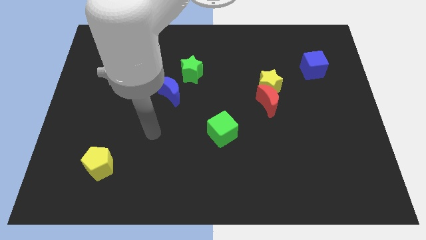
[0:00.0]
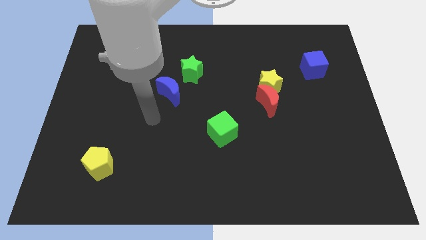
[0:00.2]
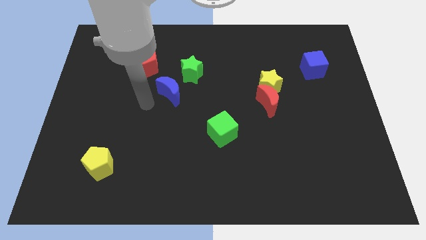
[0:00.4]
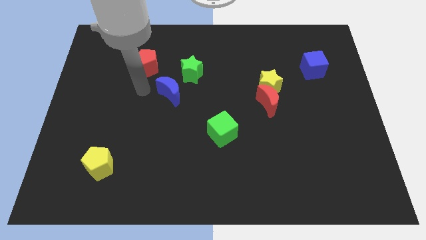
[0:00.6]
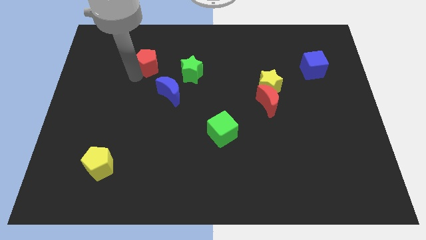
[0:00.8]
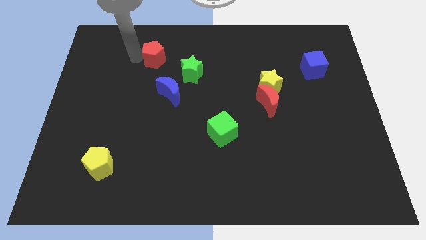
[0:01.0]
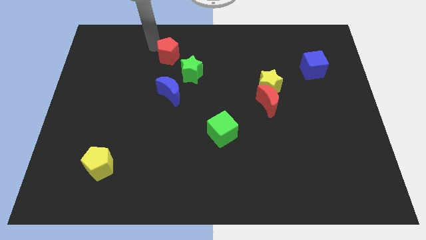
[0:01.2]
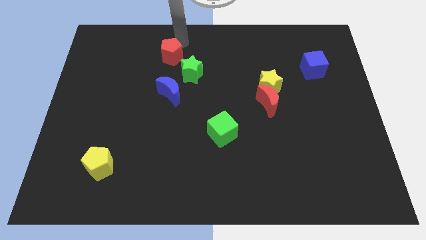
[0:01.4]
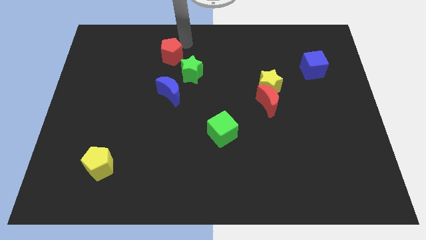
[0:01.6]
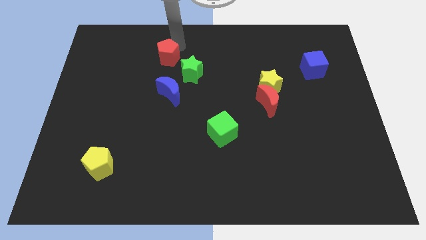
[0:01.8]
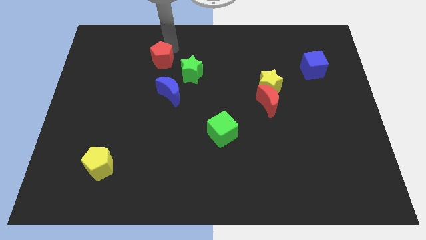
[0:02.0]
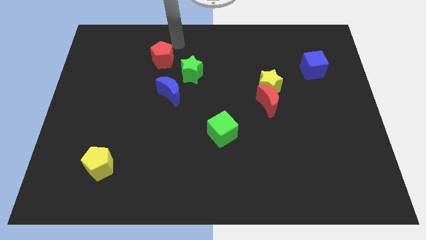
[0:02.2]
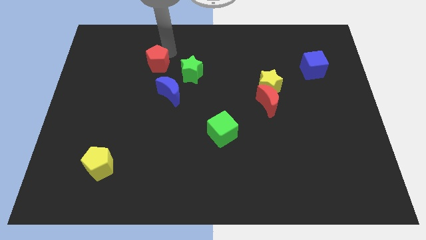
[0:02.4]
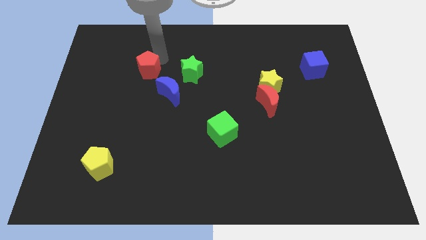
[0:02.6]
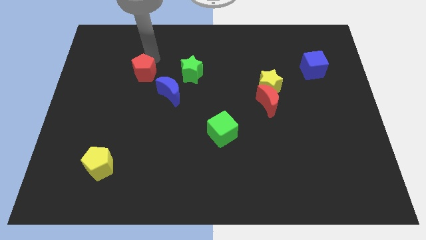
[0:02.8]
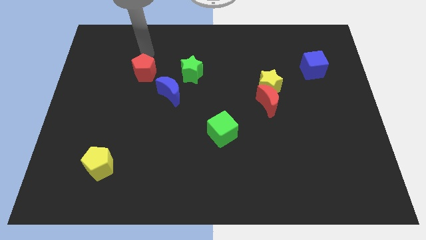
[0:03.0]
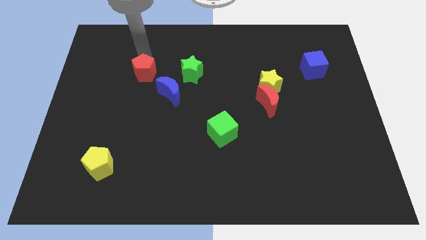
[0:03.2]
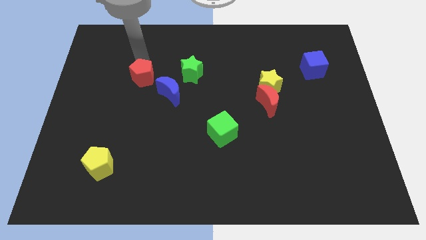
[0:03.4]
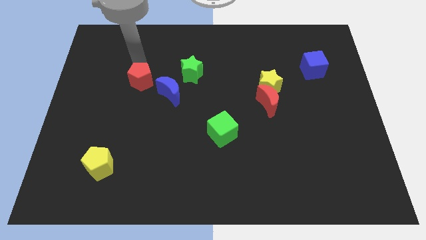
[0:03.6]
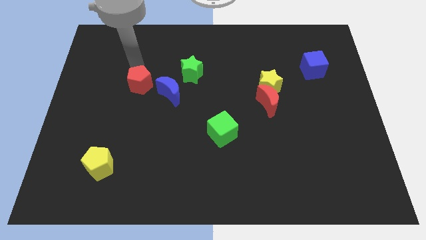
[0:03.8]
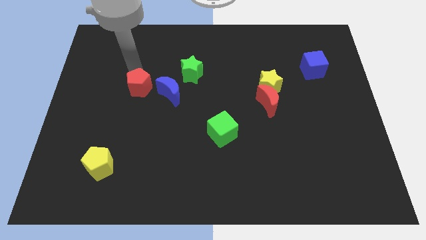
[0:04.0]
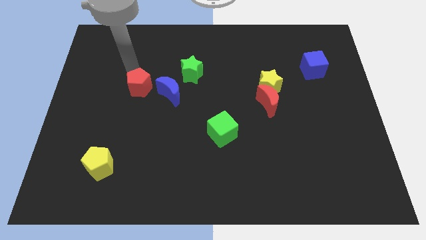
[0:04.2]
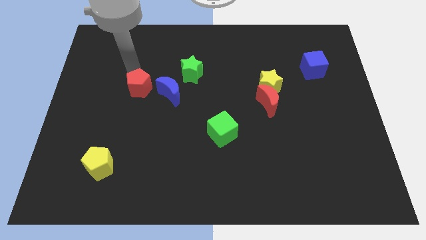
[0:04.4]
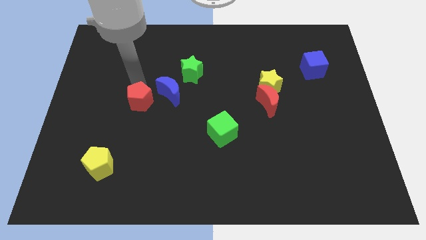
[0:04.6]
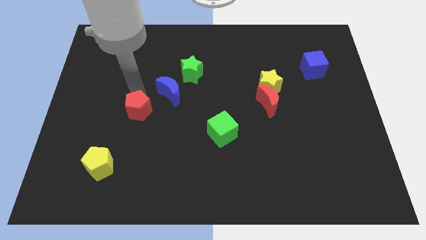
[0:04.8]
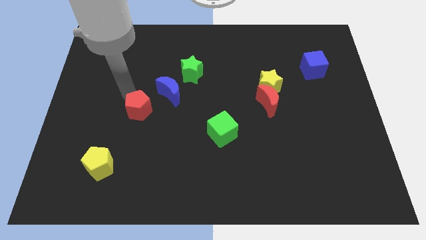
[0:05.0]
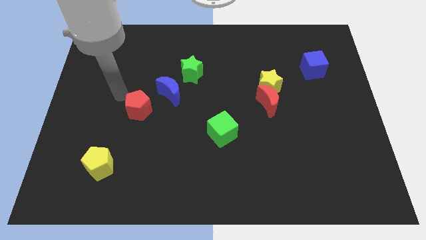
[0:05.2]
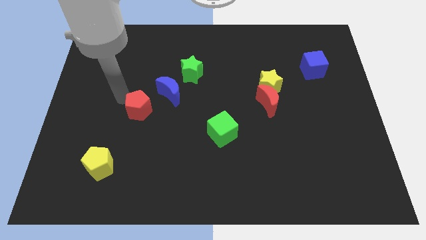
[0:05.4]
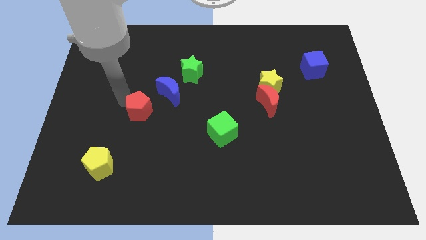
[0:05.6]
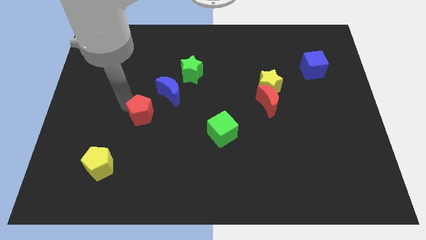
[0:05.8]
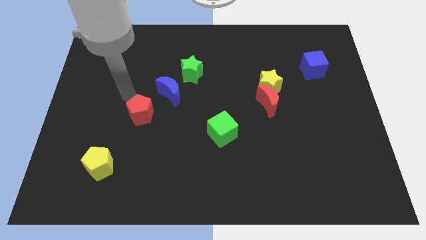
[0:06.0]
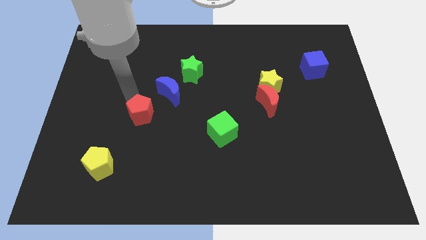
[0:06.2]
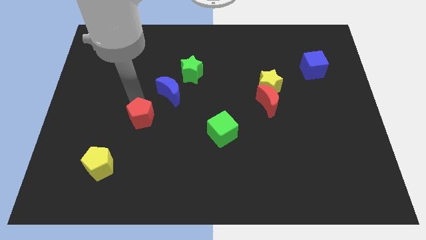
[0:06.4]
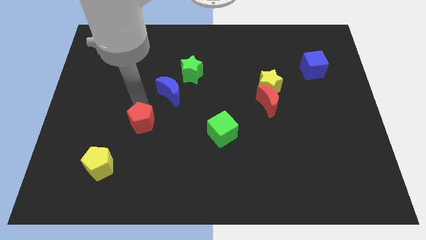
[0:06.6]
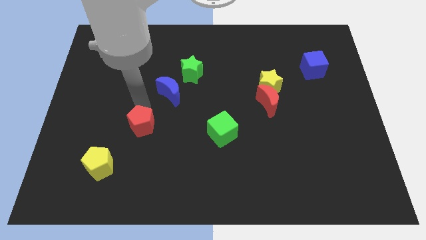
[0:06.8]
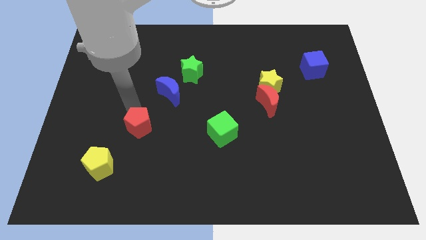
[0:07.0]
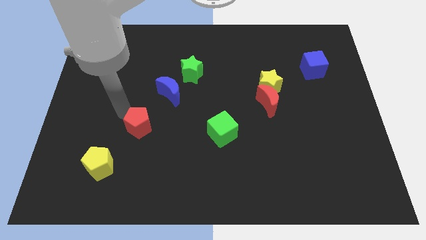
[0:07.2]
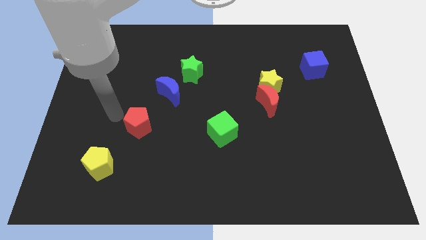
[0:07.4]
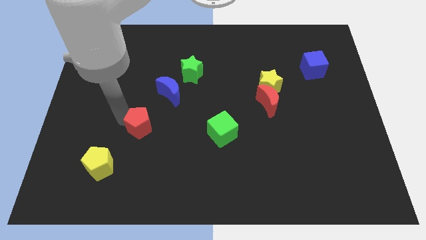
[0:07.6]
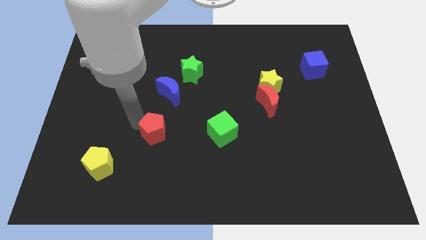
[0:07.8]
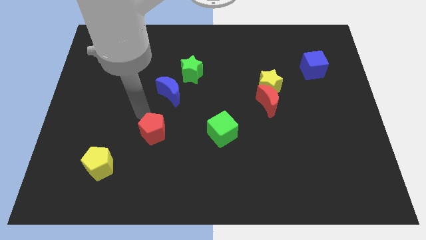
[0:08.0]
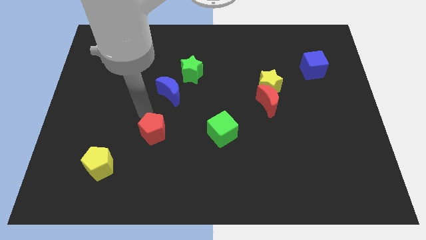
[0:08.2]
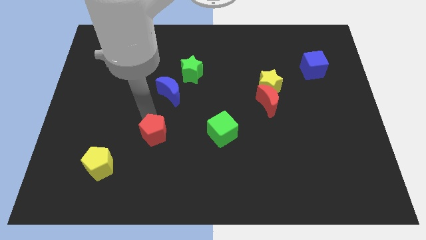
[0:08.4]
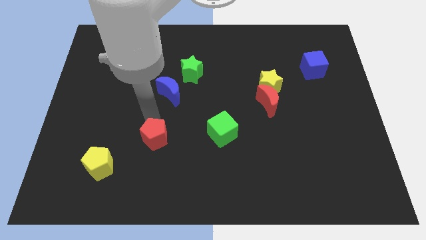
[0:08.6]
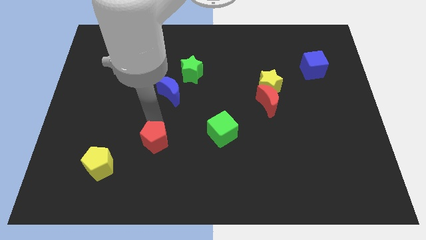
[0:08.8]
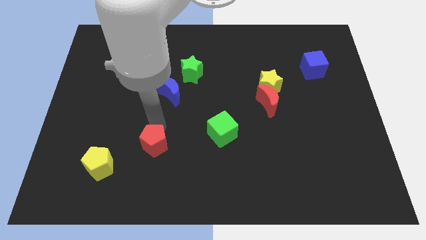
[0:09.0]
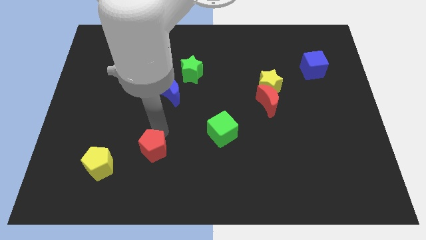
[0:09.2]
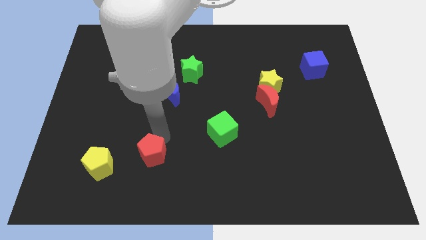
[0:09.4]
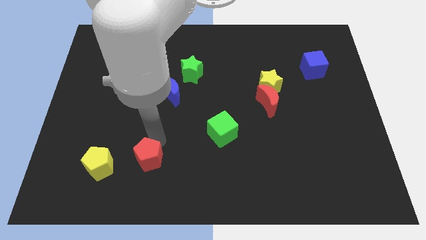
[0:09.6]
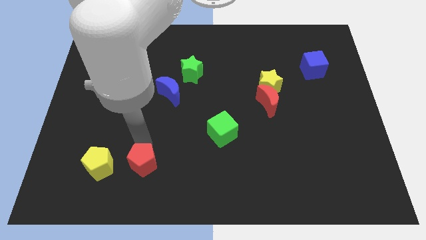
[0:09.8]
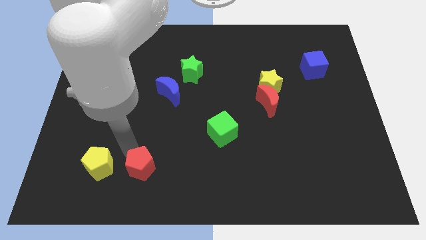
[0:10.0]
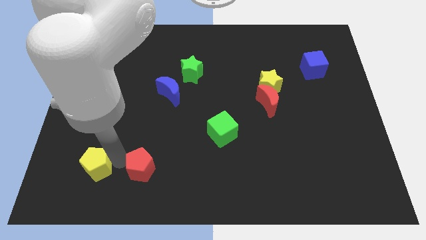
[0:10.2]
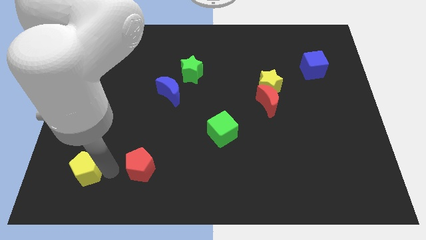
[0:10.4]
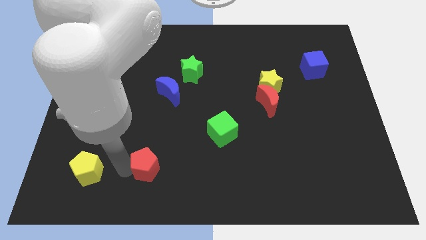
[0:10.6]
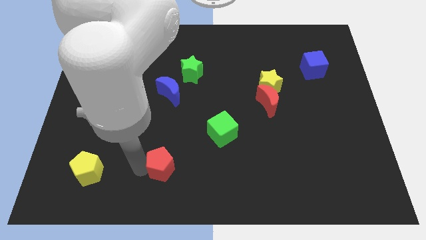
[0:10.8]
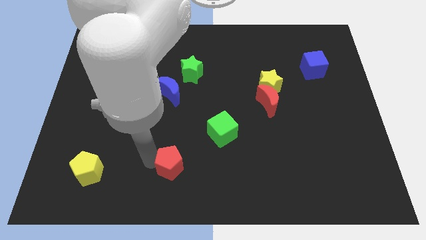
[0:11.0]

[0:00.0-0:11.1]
slide the red pentagon to the bottom side
